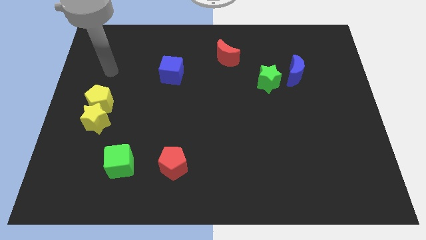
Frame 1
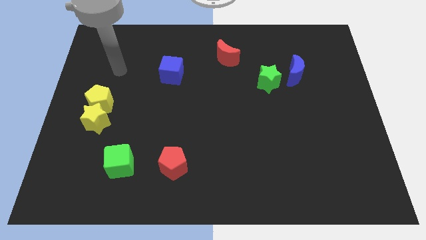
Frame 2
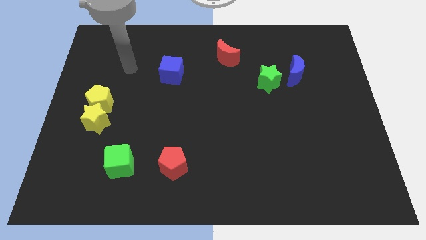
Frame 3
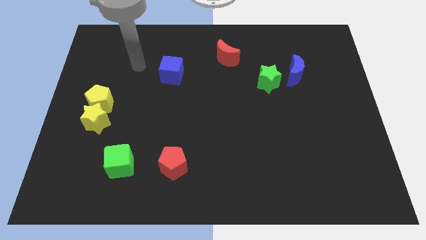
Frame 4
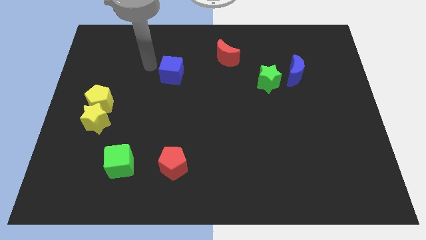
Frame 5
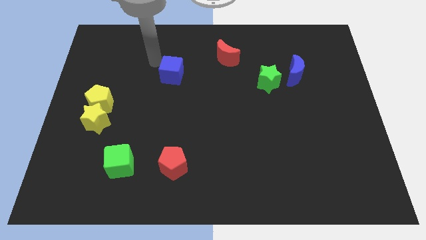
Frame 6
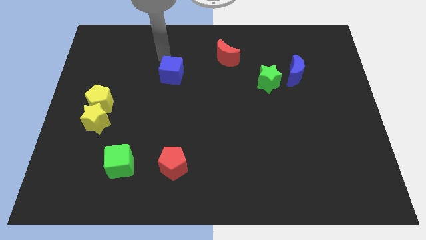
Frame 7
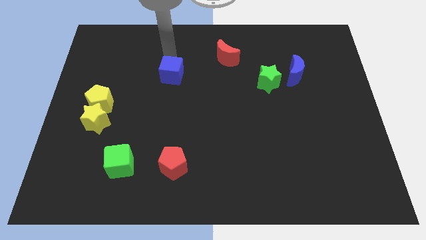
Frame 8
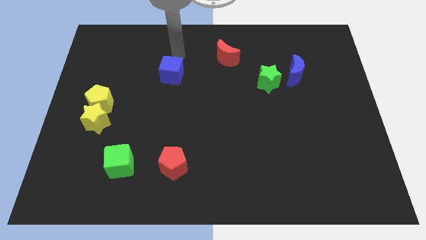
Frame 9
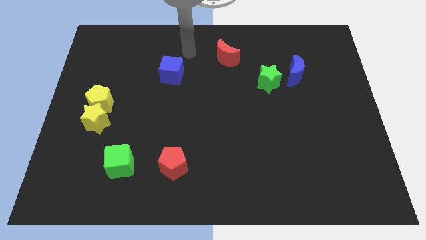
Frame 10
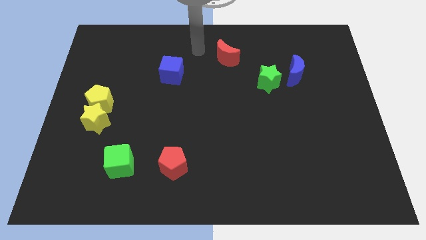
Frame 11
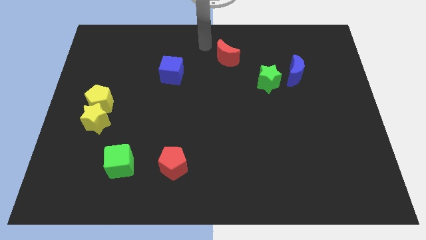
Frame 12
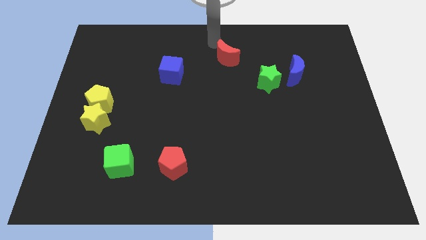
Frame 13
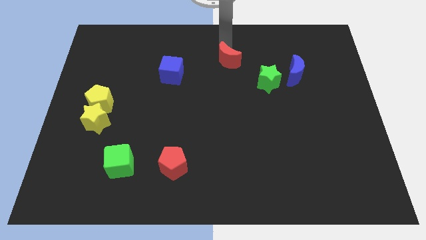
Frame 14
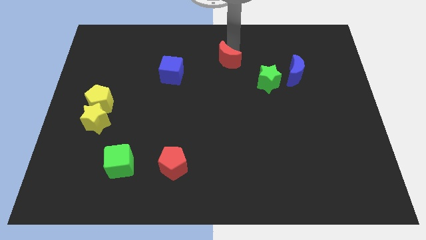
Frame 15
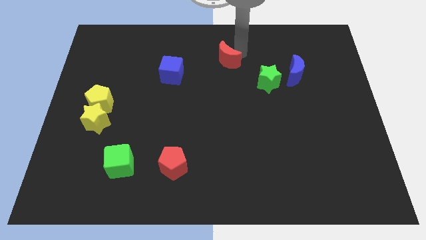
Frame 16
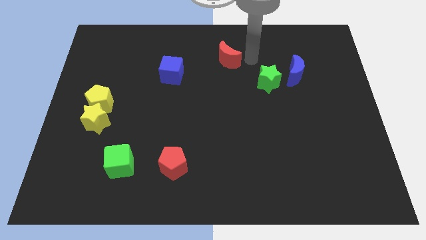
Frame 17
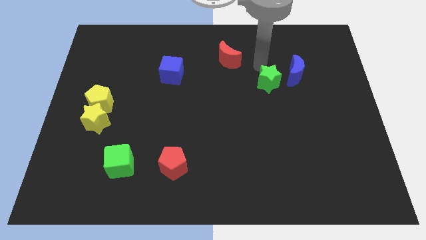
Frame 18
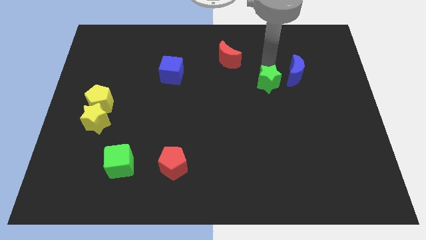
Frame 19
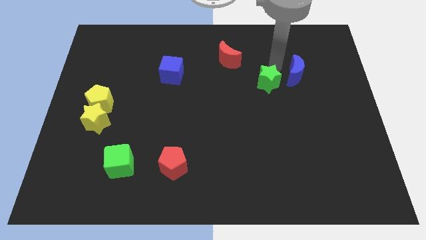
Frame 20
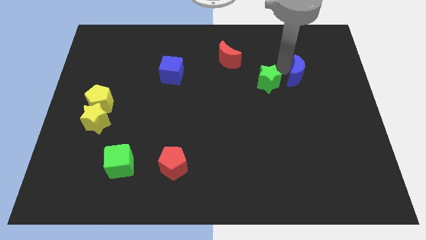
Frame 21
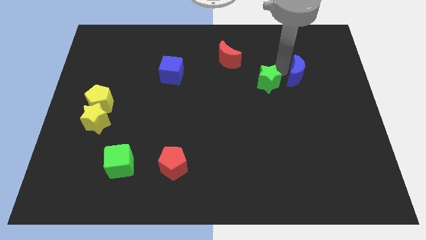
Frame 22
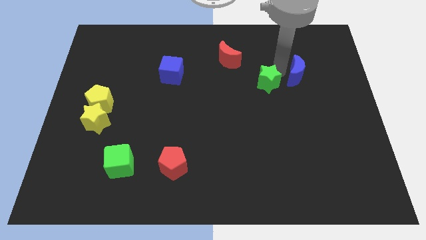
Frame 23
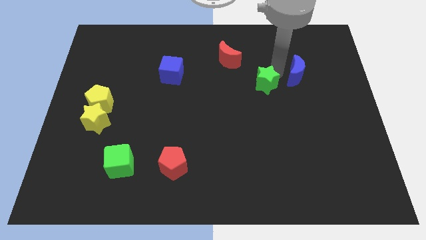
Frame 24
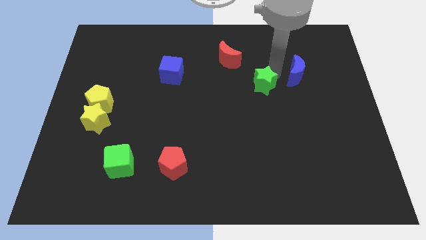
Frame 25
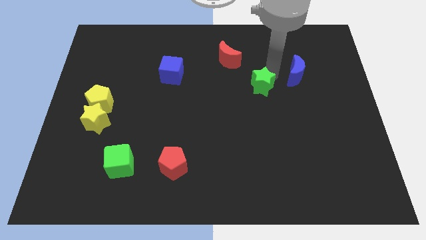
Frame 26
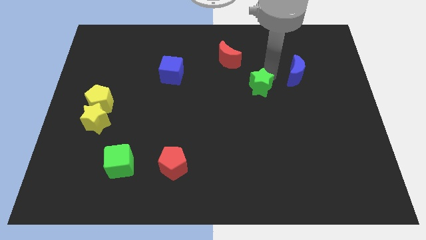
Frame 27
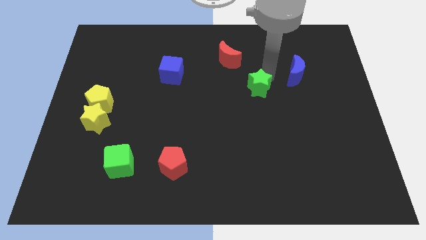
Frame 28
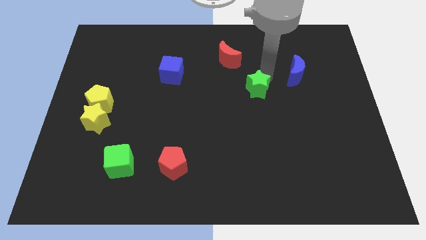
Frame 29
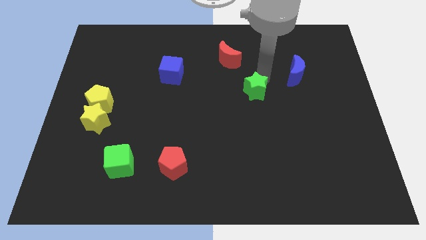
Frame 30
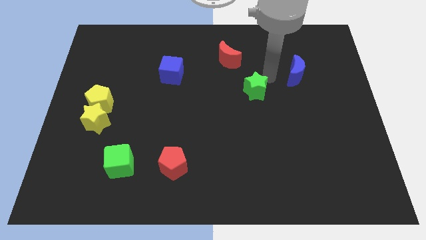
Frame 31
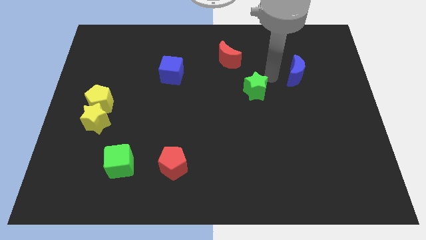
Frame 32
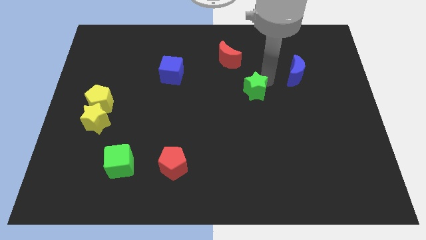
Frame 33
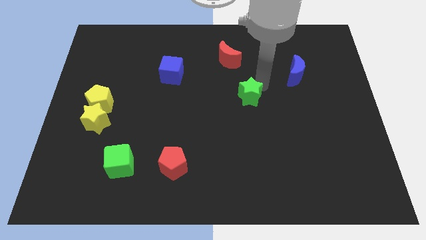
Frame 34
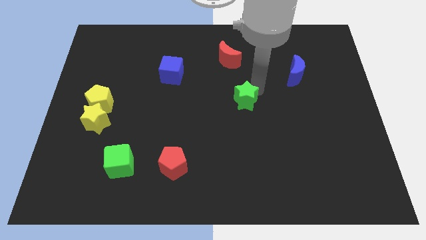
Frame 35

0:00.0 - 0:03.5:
slightly push the green star downwards and to the left diagonally

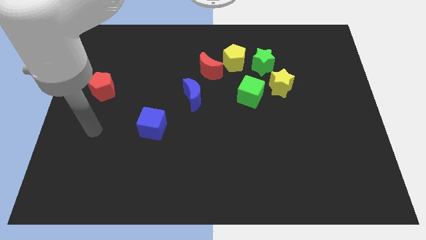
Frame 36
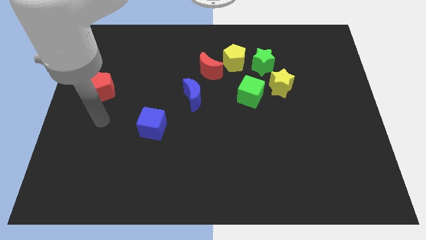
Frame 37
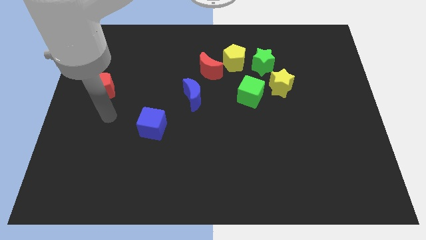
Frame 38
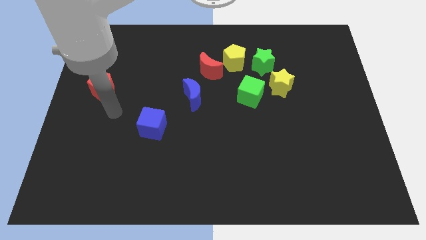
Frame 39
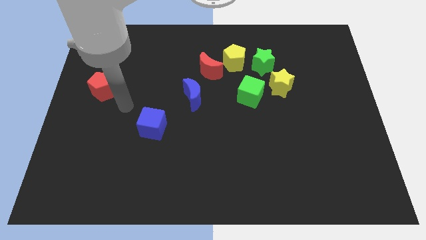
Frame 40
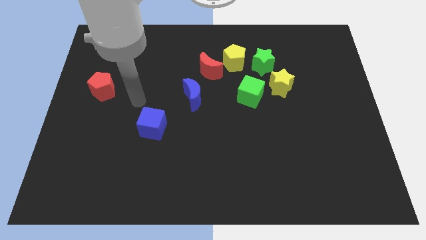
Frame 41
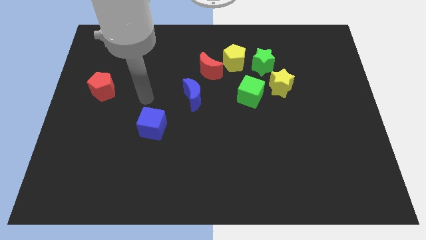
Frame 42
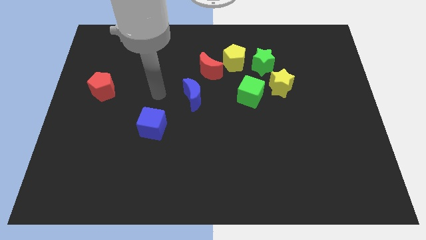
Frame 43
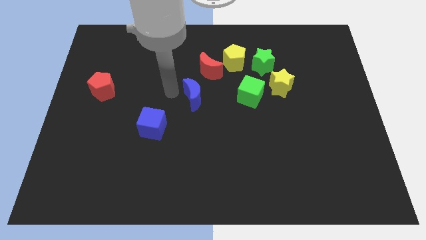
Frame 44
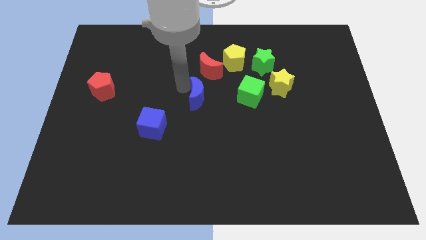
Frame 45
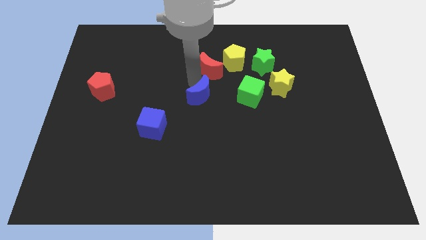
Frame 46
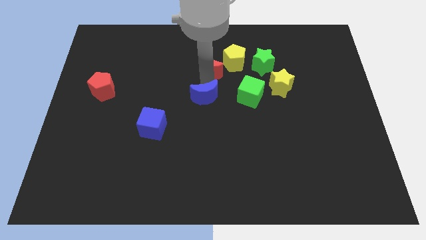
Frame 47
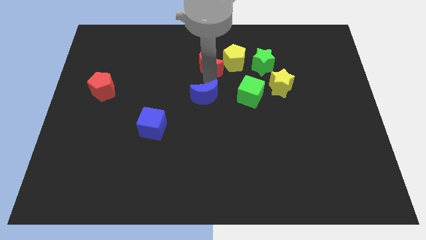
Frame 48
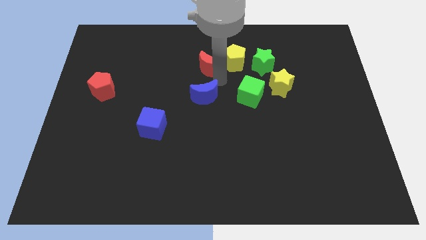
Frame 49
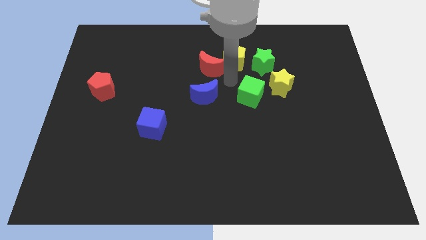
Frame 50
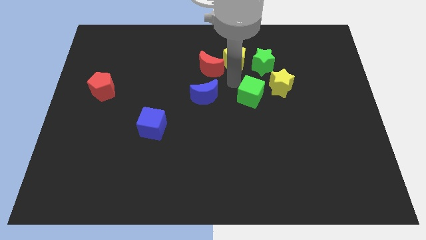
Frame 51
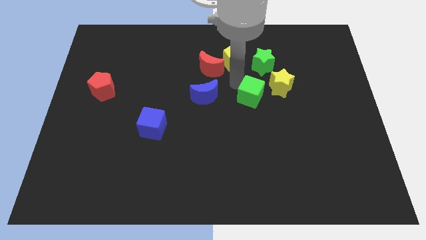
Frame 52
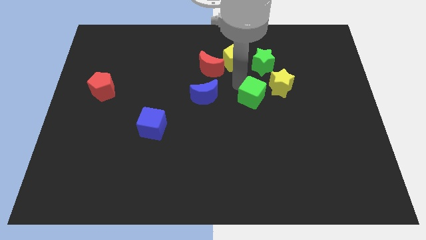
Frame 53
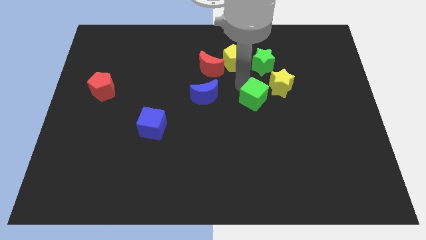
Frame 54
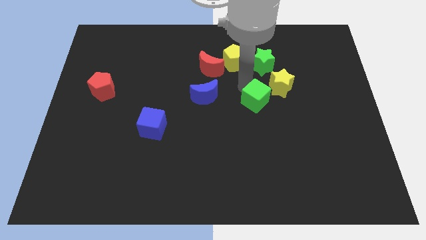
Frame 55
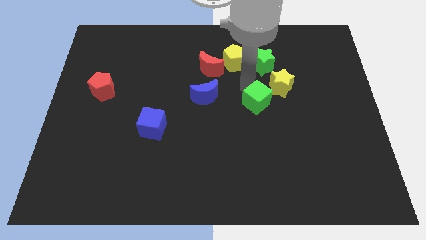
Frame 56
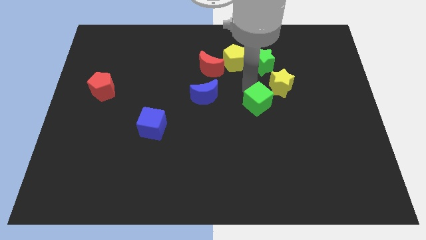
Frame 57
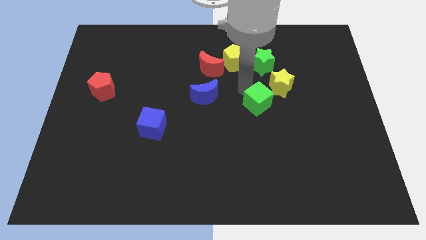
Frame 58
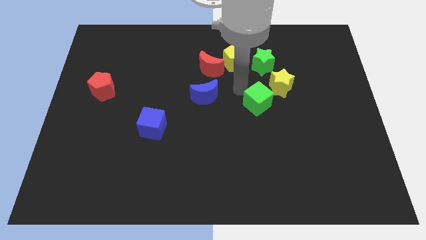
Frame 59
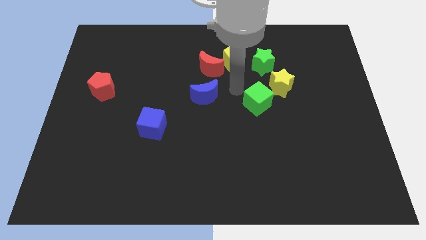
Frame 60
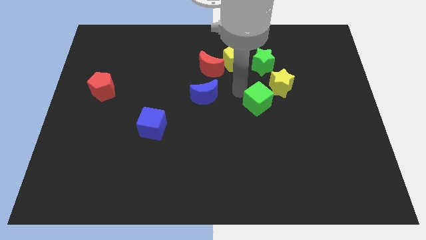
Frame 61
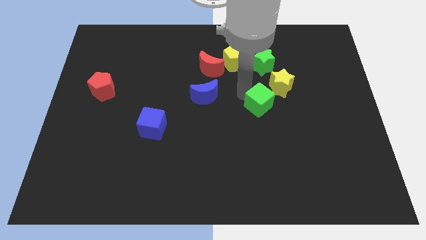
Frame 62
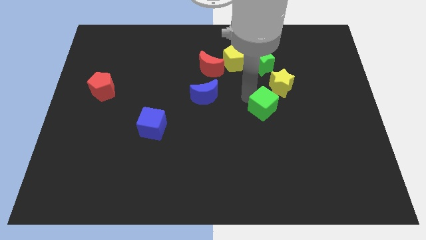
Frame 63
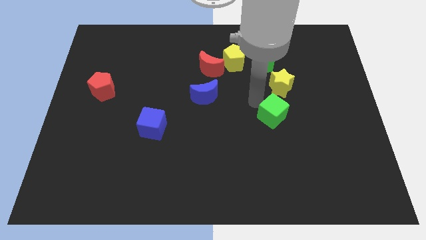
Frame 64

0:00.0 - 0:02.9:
slide the green cube somewhat down and right

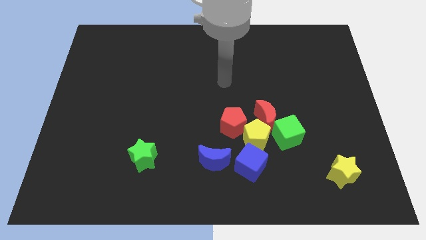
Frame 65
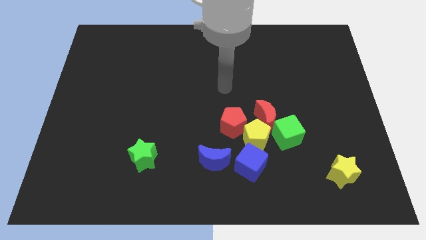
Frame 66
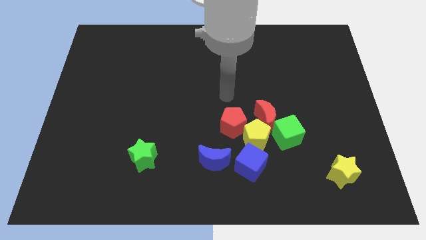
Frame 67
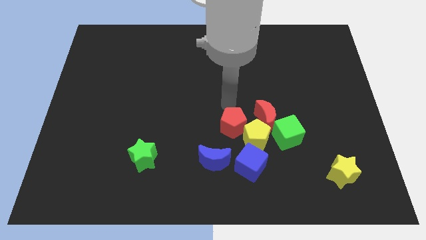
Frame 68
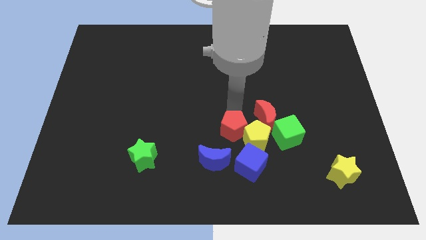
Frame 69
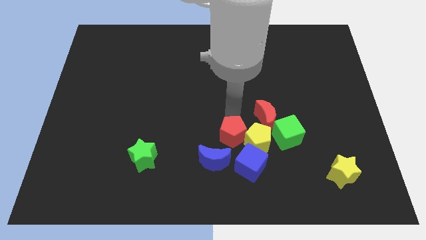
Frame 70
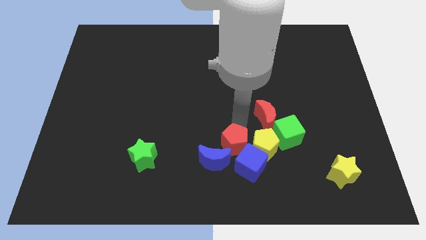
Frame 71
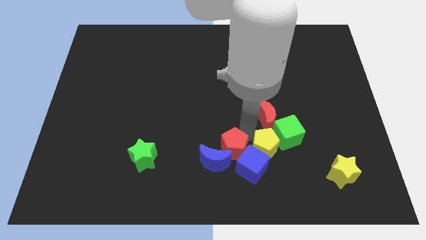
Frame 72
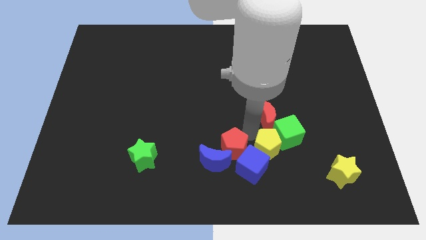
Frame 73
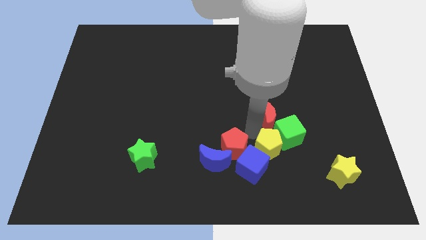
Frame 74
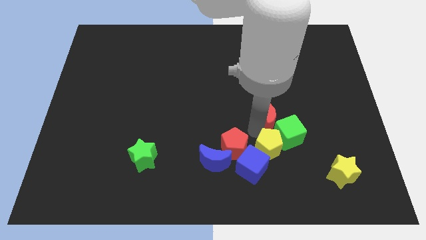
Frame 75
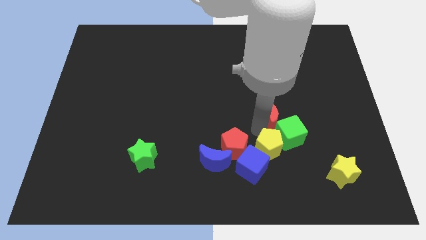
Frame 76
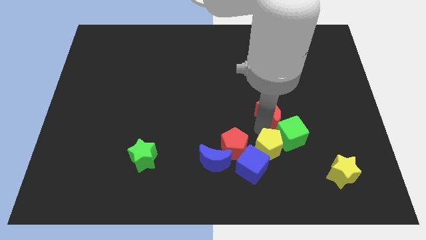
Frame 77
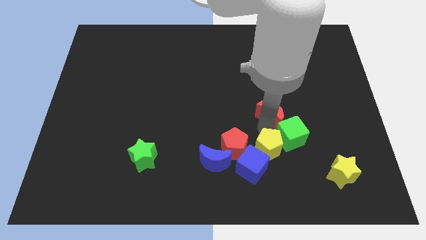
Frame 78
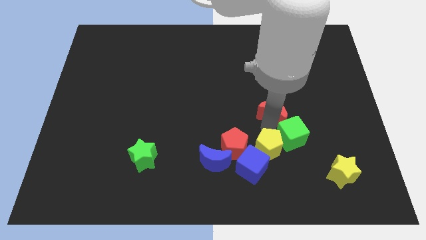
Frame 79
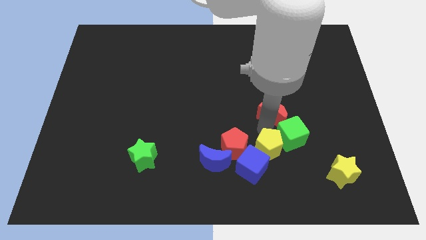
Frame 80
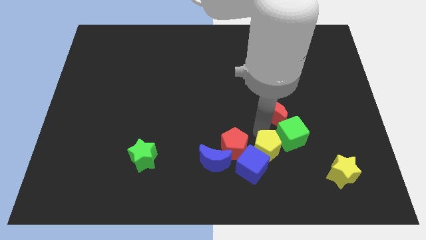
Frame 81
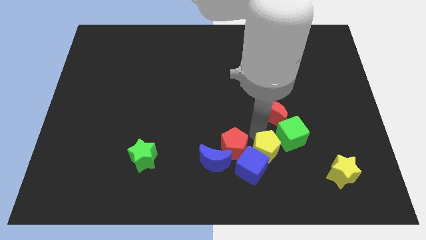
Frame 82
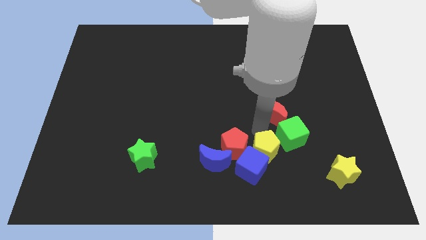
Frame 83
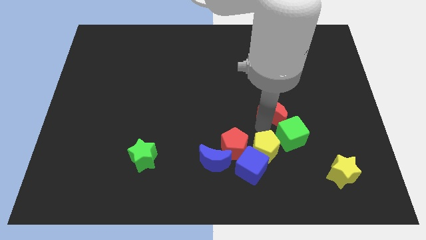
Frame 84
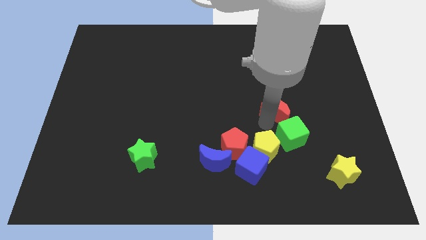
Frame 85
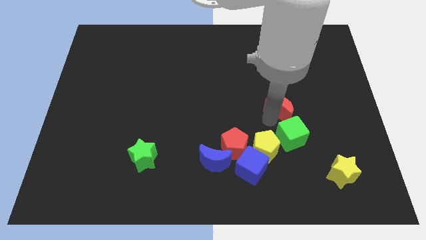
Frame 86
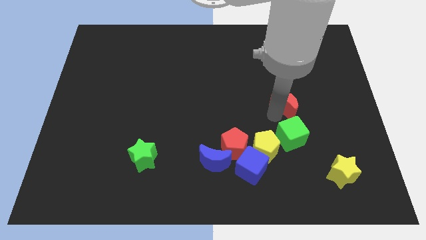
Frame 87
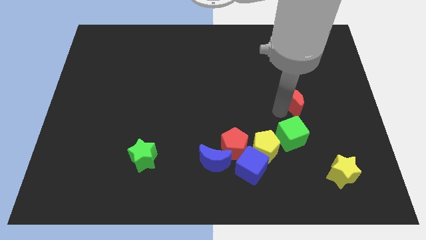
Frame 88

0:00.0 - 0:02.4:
push the red moon upwards and to the right slightly
